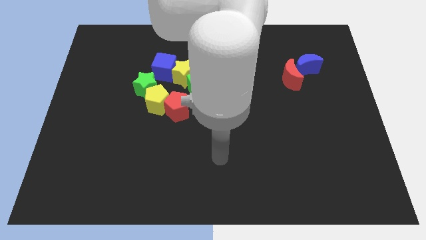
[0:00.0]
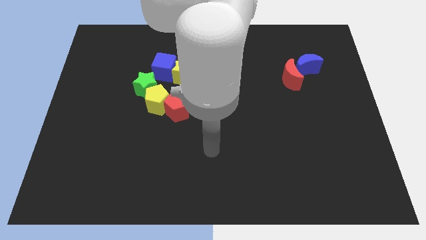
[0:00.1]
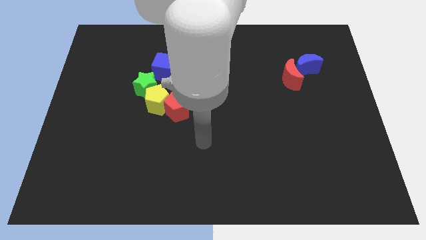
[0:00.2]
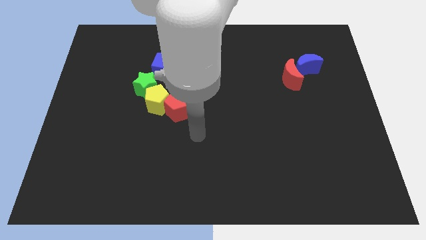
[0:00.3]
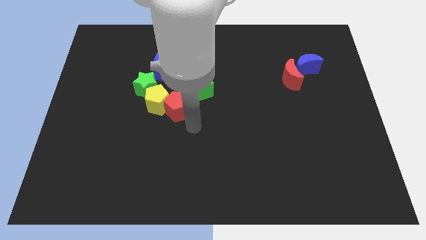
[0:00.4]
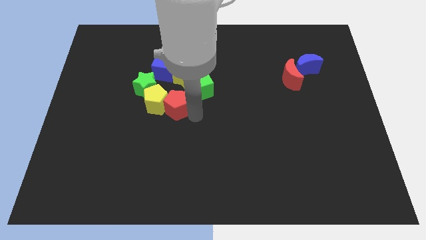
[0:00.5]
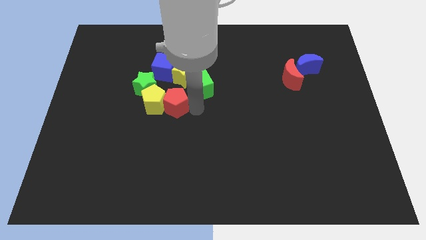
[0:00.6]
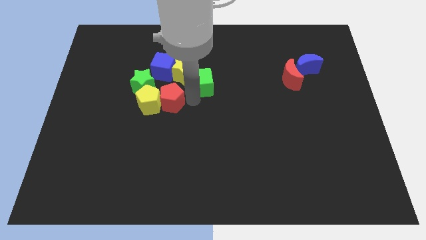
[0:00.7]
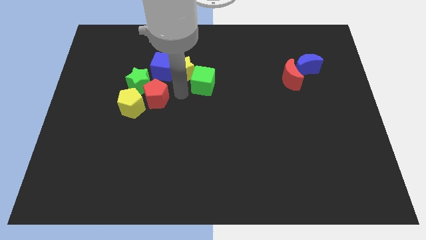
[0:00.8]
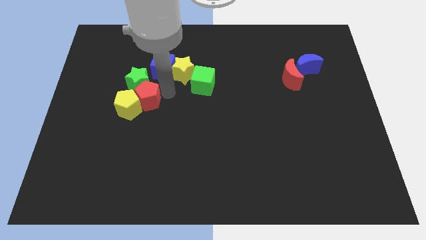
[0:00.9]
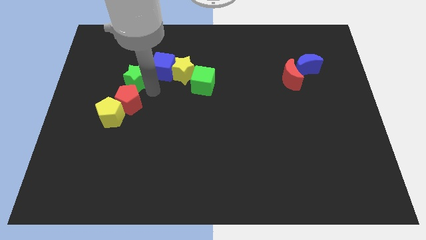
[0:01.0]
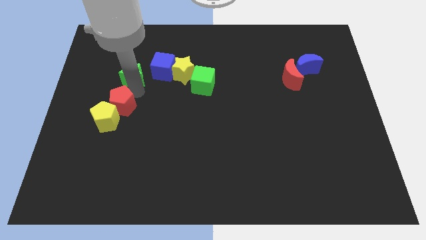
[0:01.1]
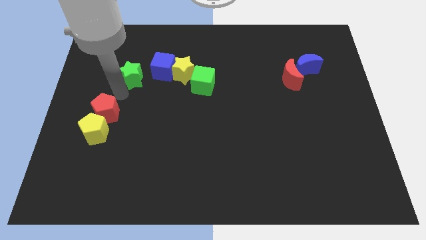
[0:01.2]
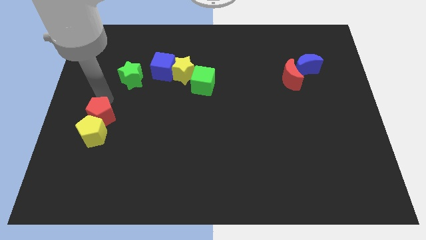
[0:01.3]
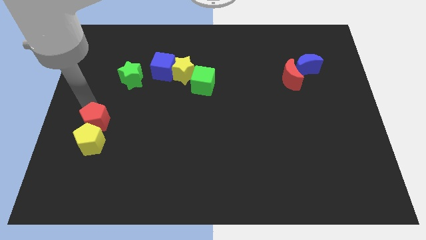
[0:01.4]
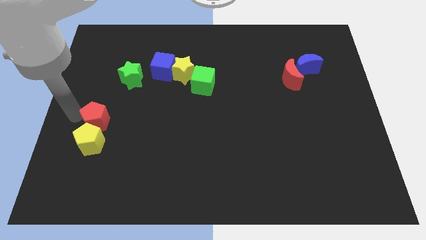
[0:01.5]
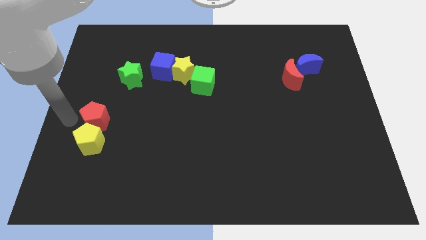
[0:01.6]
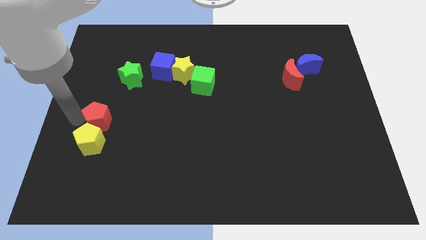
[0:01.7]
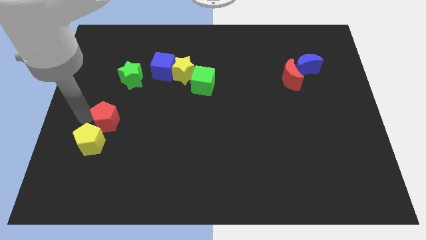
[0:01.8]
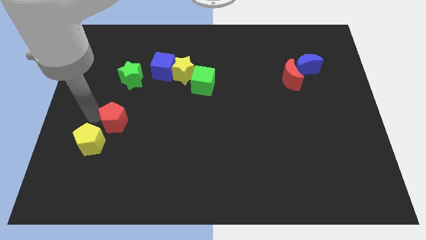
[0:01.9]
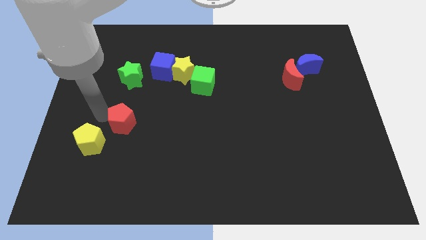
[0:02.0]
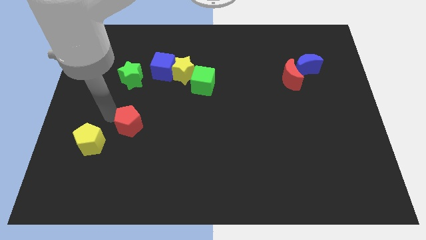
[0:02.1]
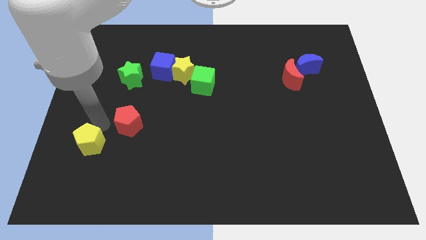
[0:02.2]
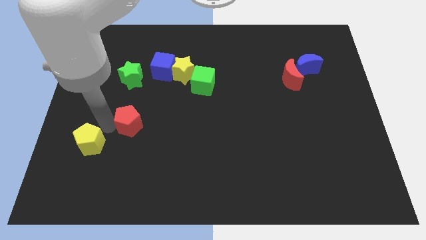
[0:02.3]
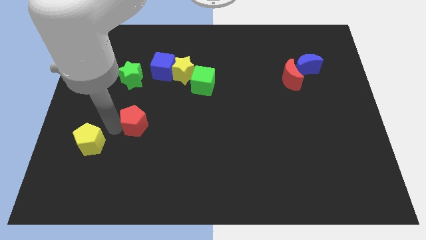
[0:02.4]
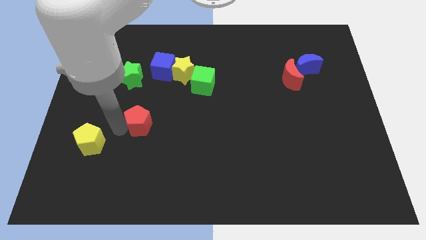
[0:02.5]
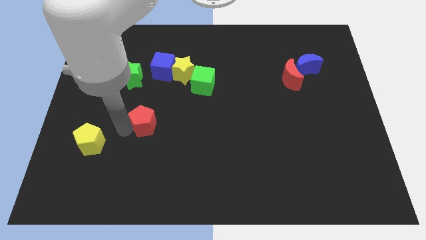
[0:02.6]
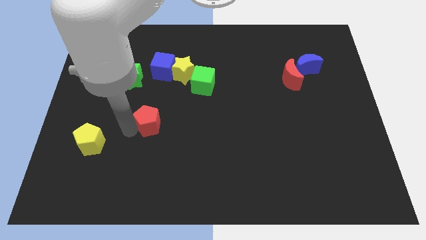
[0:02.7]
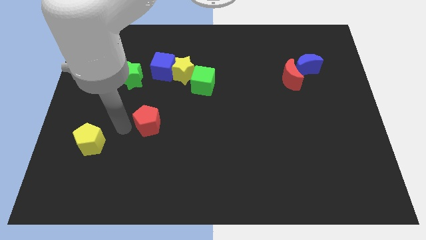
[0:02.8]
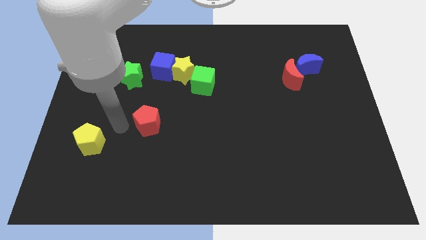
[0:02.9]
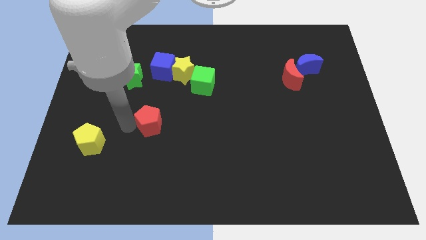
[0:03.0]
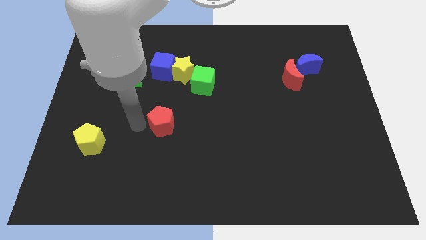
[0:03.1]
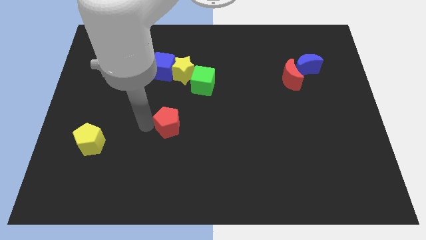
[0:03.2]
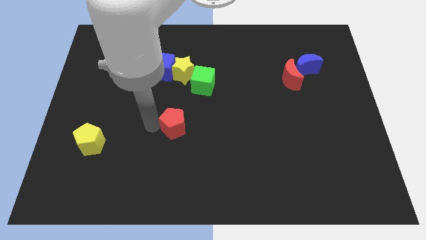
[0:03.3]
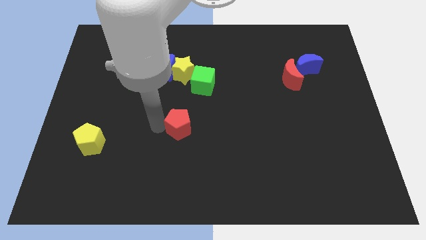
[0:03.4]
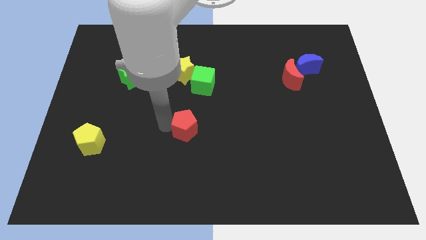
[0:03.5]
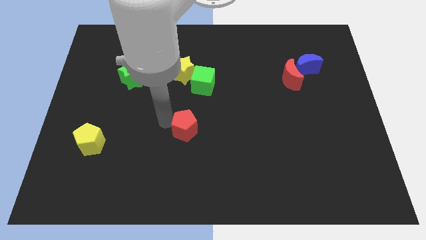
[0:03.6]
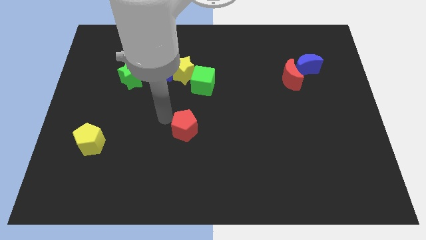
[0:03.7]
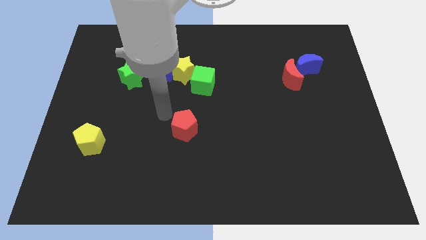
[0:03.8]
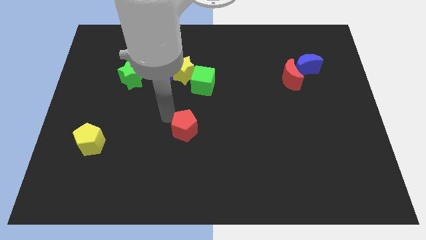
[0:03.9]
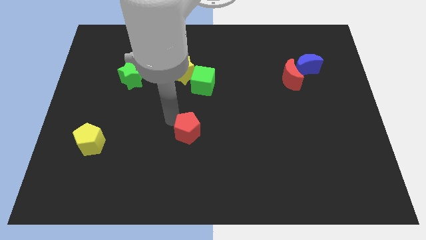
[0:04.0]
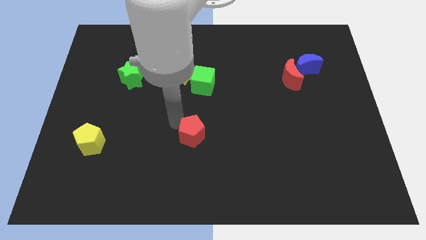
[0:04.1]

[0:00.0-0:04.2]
slide the red pentagon down and to the right a little

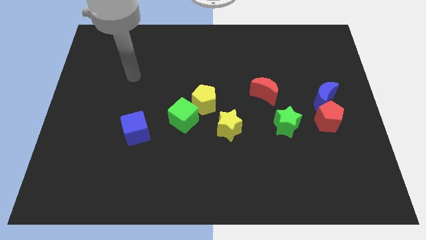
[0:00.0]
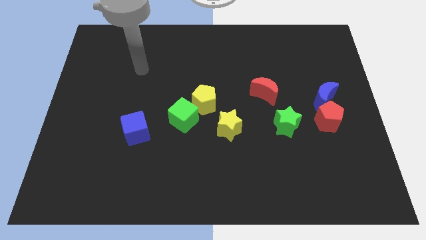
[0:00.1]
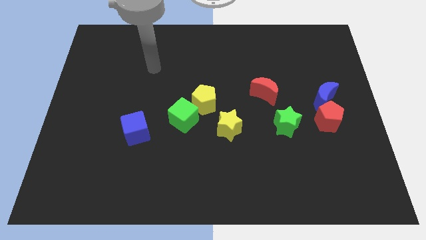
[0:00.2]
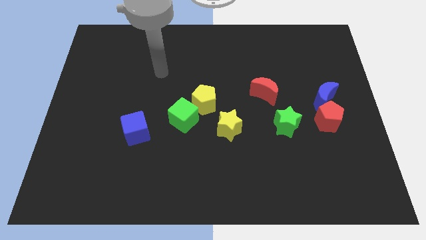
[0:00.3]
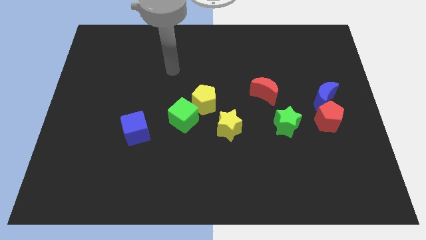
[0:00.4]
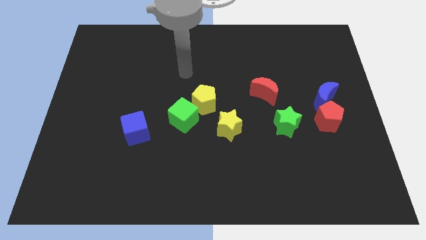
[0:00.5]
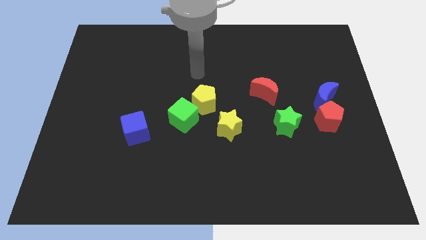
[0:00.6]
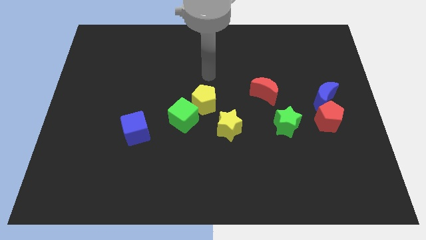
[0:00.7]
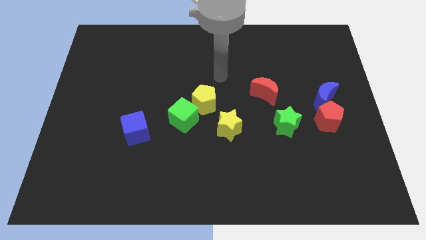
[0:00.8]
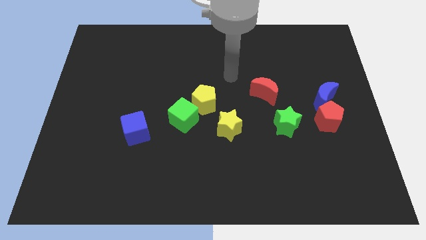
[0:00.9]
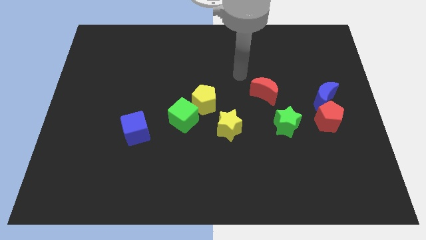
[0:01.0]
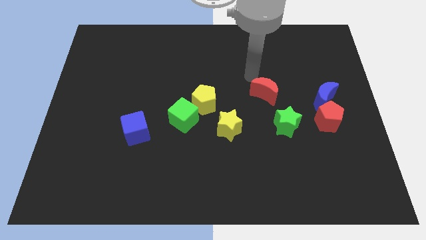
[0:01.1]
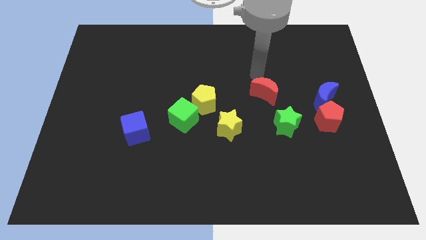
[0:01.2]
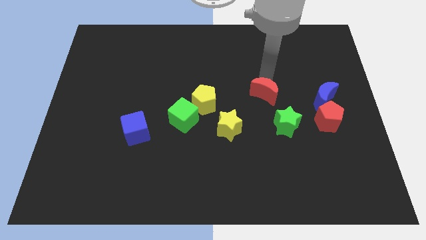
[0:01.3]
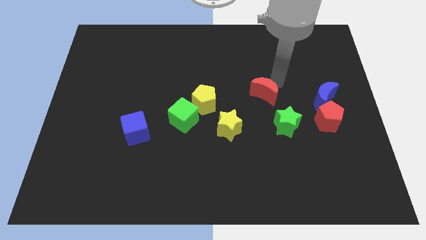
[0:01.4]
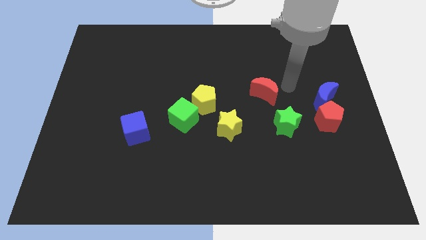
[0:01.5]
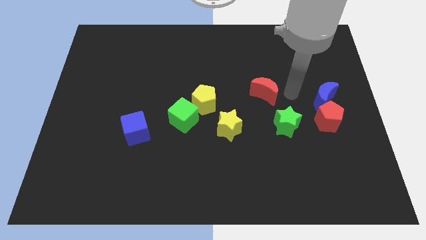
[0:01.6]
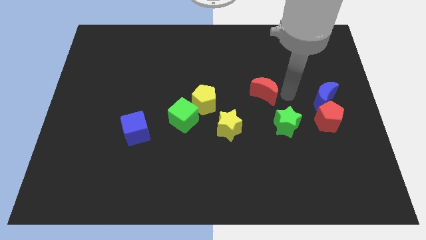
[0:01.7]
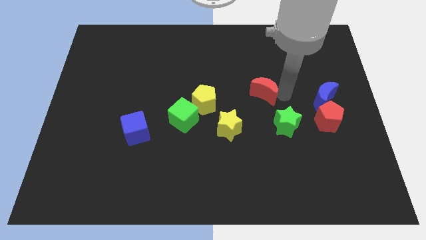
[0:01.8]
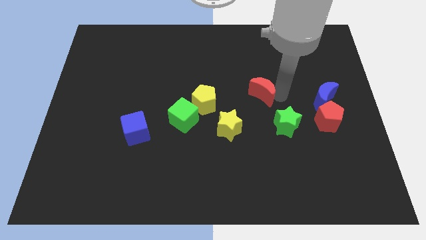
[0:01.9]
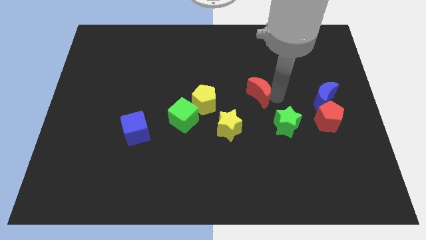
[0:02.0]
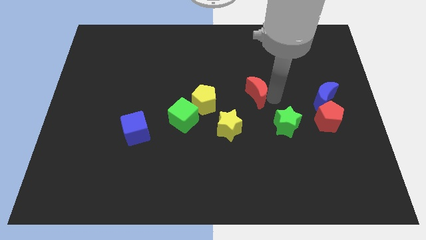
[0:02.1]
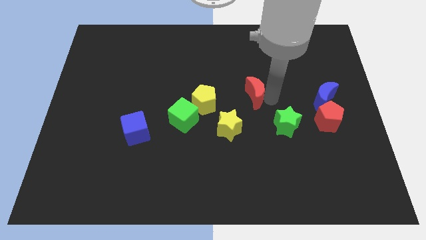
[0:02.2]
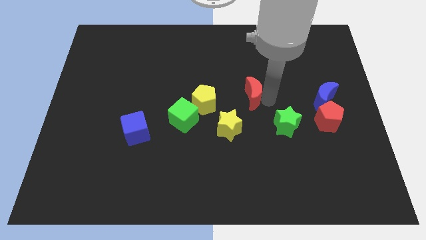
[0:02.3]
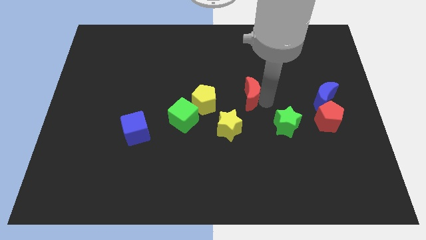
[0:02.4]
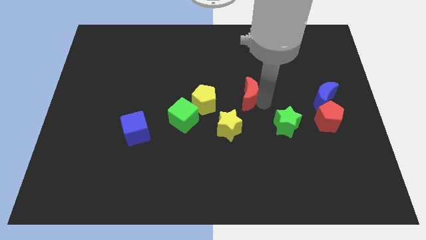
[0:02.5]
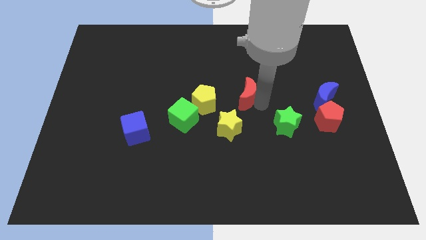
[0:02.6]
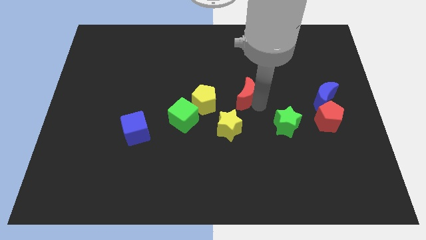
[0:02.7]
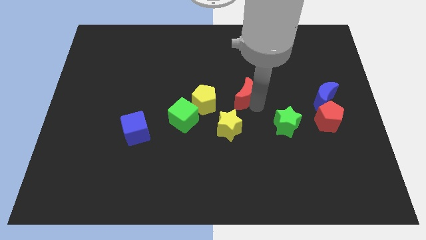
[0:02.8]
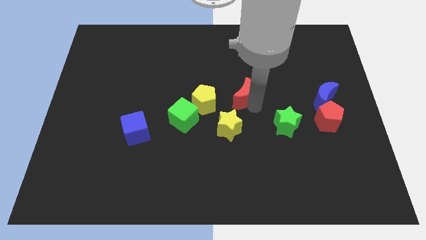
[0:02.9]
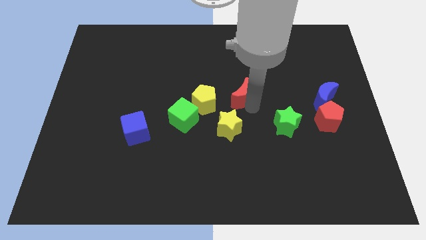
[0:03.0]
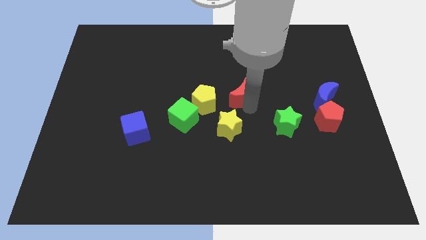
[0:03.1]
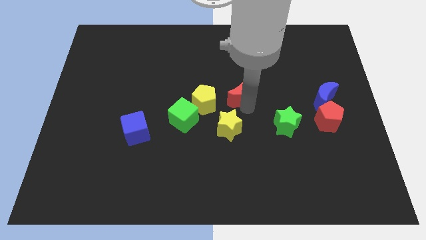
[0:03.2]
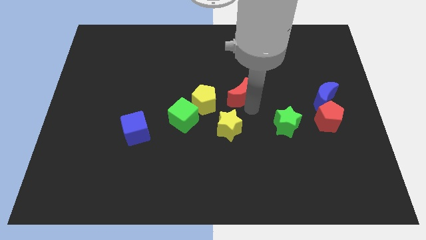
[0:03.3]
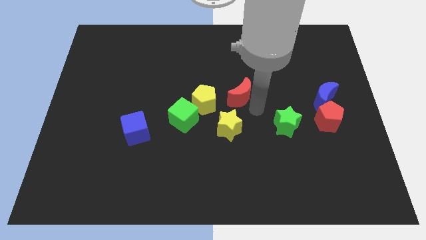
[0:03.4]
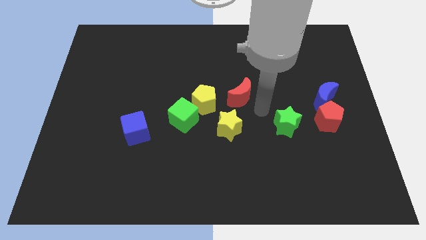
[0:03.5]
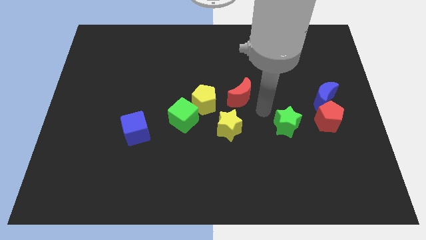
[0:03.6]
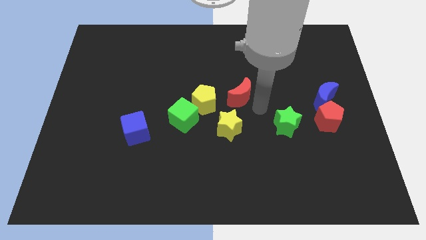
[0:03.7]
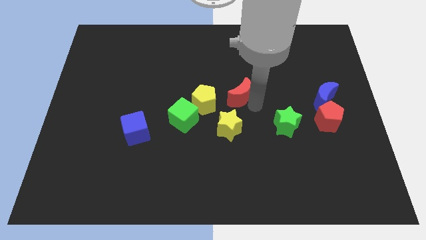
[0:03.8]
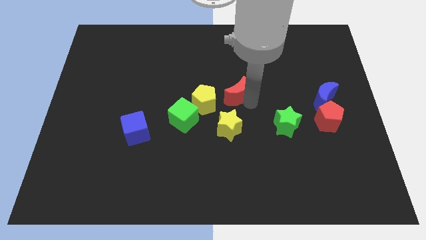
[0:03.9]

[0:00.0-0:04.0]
push the red moon somewhat left
